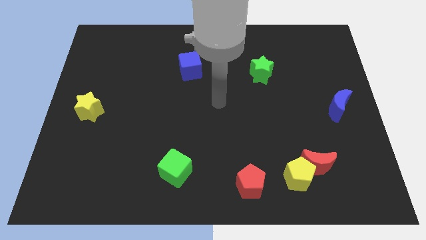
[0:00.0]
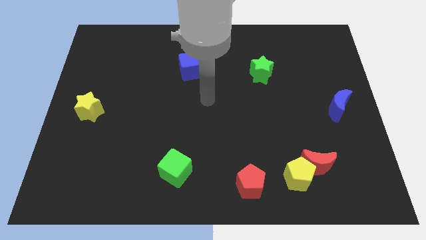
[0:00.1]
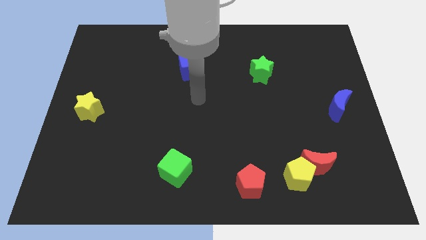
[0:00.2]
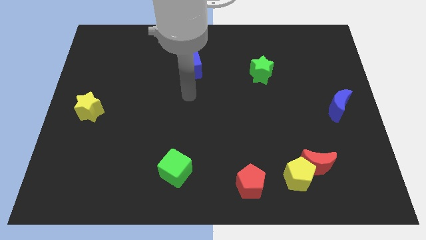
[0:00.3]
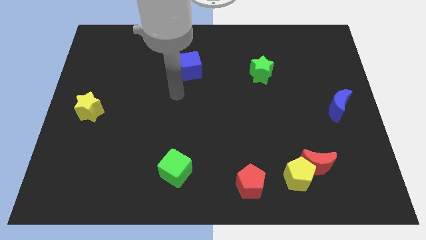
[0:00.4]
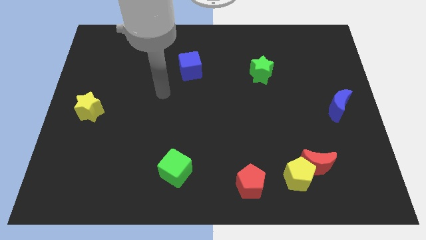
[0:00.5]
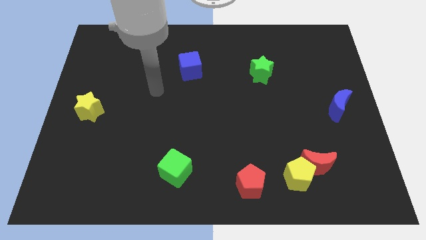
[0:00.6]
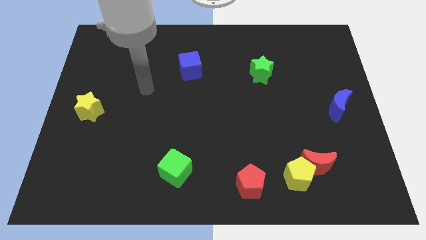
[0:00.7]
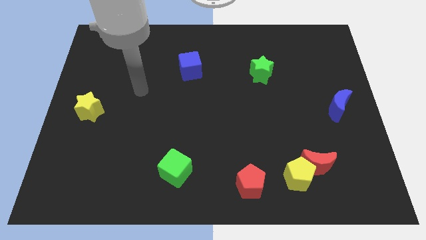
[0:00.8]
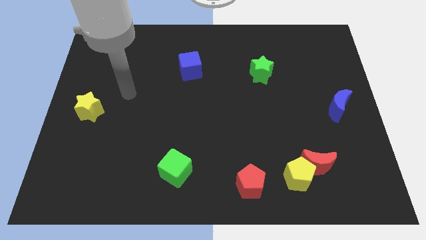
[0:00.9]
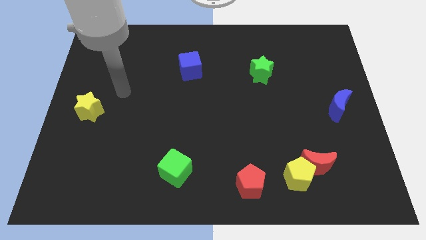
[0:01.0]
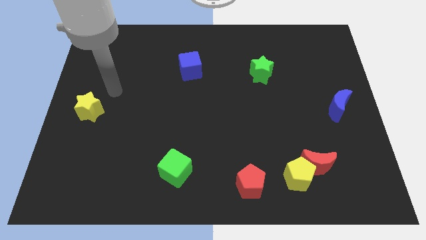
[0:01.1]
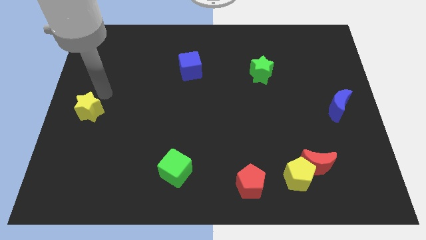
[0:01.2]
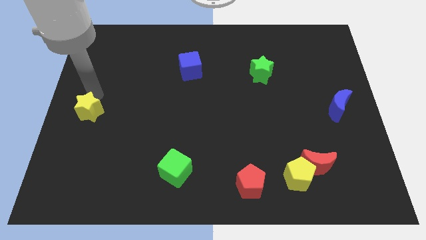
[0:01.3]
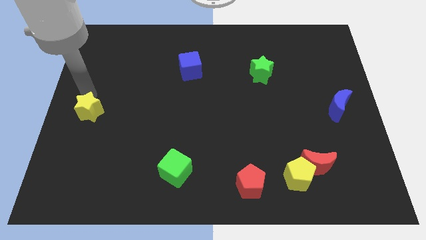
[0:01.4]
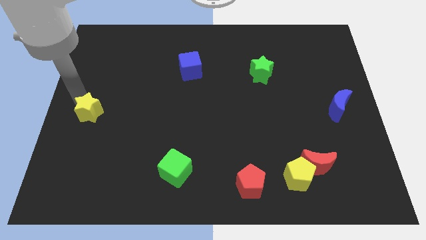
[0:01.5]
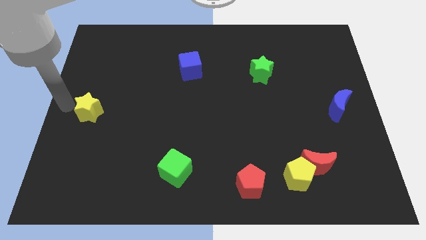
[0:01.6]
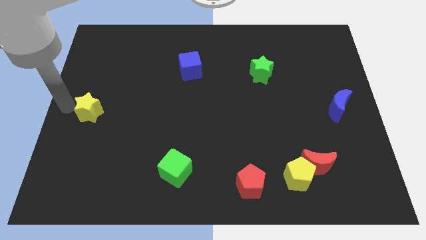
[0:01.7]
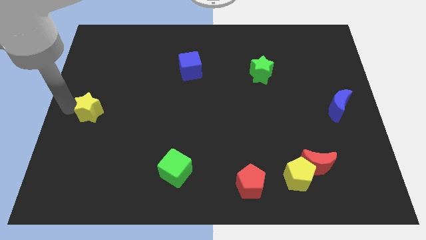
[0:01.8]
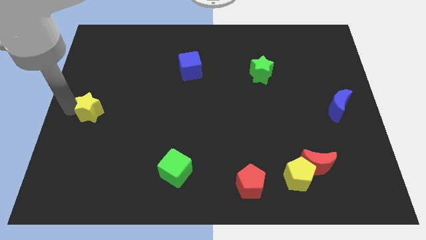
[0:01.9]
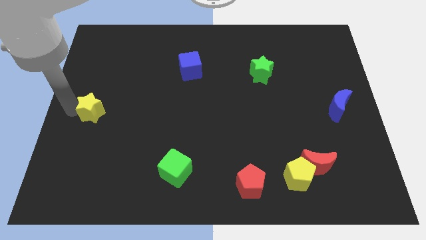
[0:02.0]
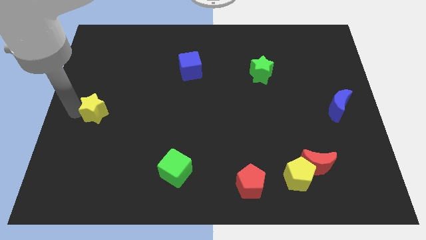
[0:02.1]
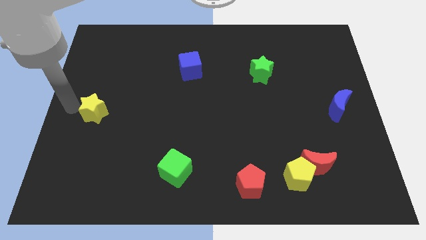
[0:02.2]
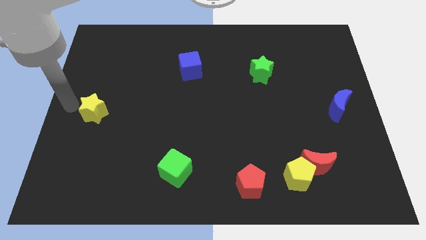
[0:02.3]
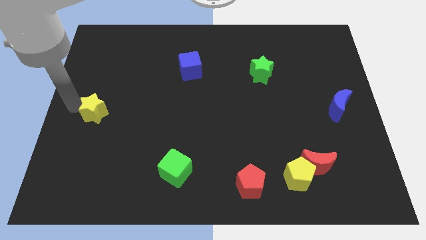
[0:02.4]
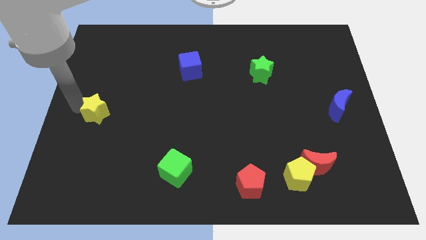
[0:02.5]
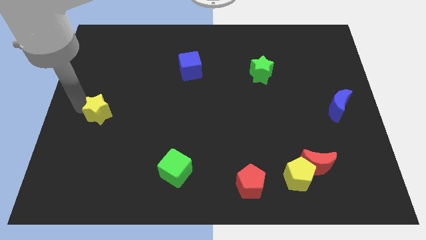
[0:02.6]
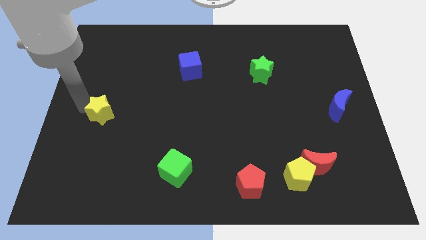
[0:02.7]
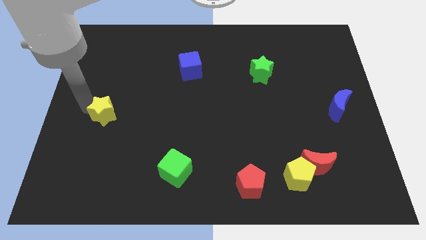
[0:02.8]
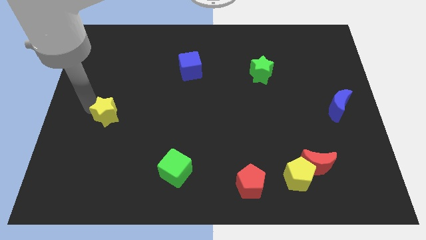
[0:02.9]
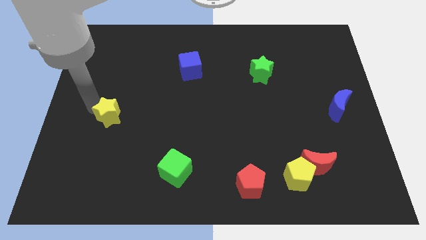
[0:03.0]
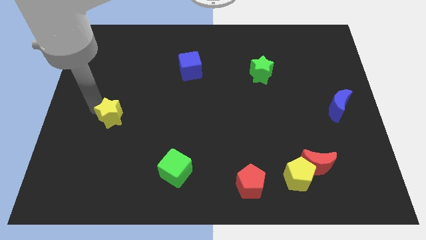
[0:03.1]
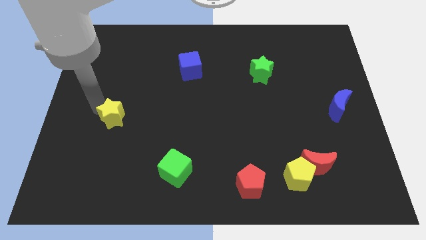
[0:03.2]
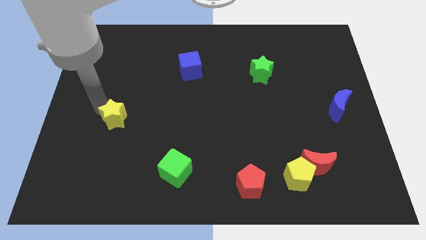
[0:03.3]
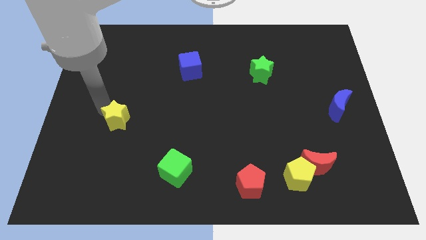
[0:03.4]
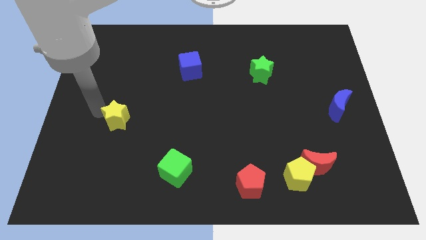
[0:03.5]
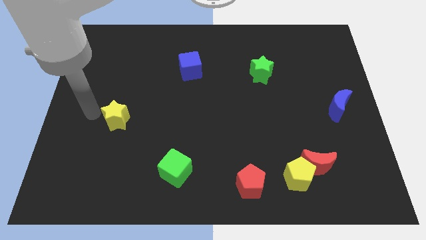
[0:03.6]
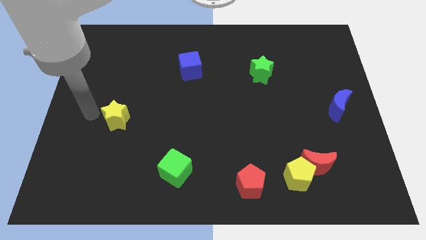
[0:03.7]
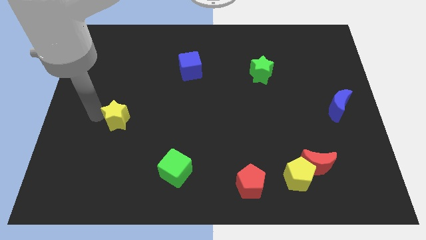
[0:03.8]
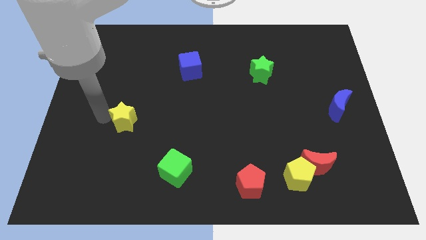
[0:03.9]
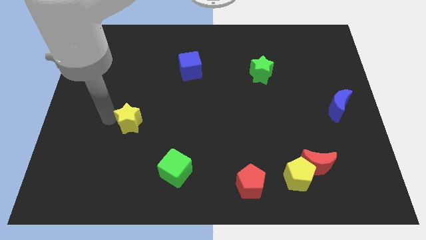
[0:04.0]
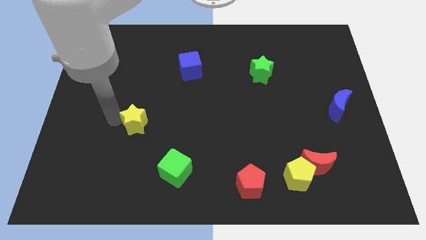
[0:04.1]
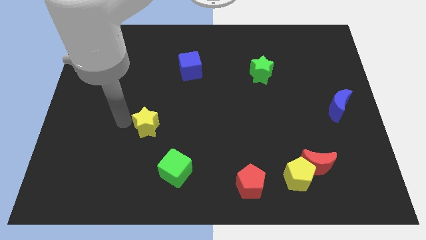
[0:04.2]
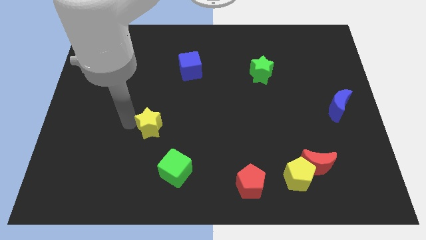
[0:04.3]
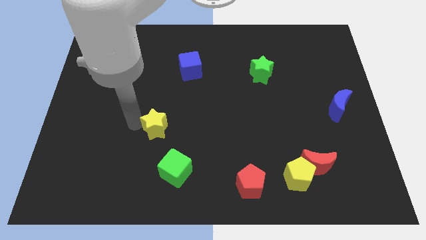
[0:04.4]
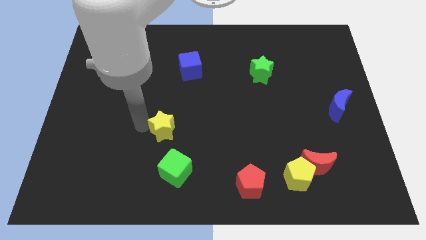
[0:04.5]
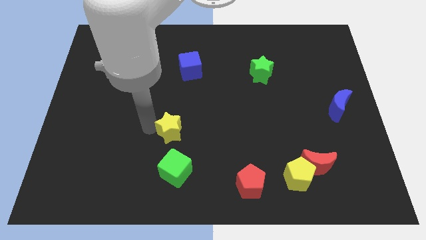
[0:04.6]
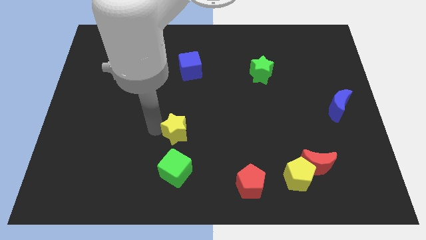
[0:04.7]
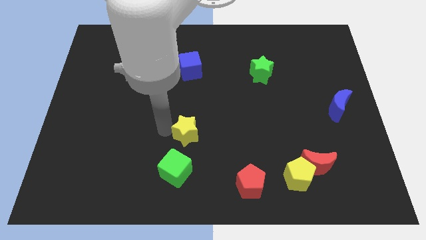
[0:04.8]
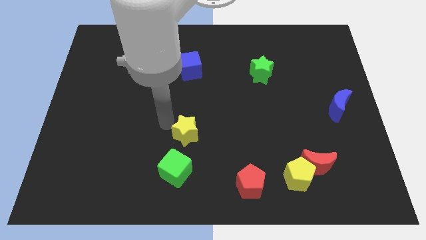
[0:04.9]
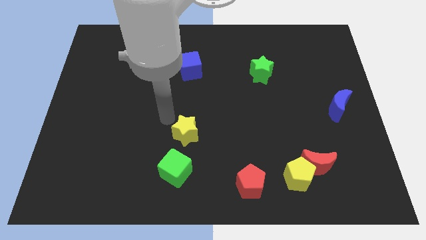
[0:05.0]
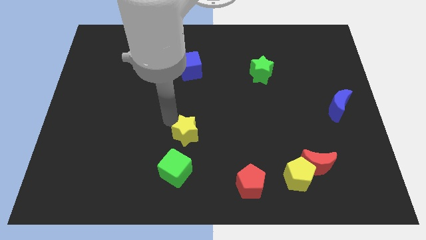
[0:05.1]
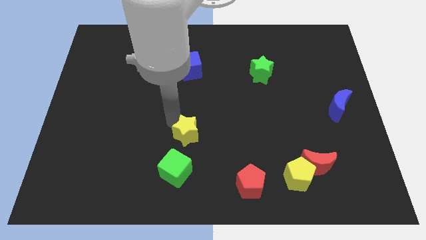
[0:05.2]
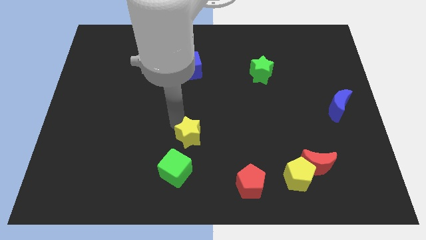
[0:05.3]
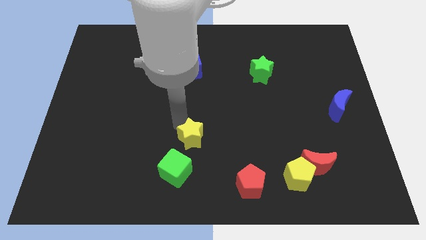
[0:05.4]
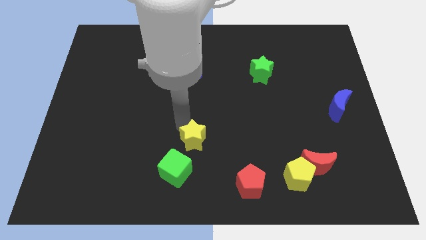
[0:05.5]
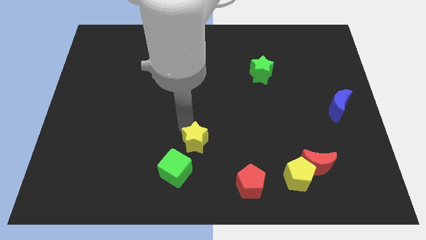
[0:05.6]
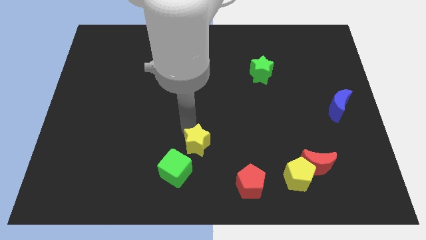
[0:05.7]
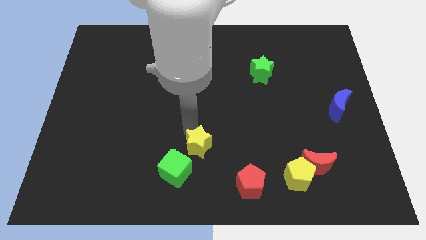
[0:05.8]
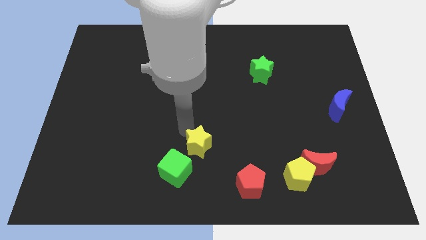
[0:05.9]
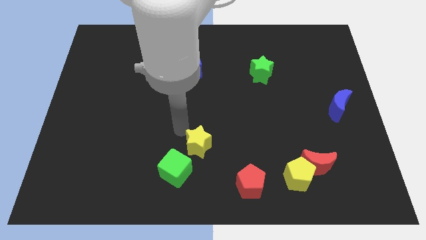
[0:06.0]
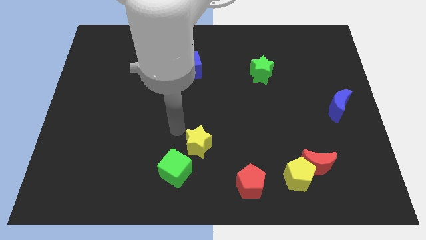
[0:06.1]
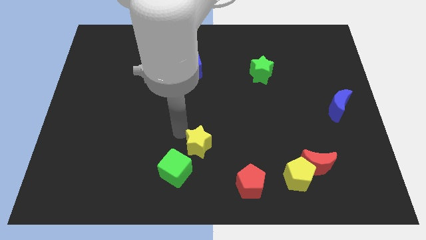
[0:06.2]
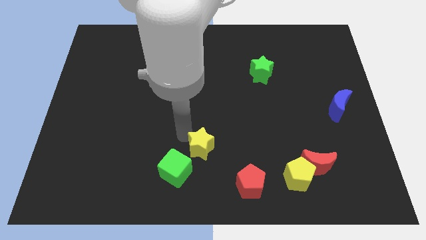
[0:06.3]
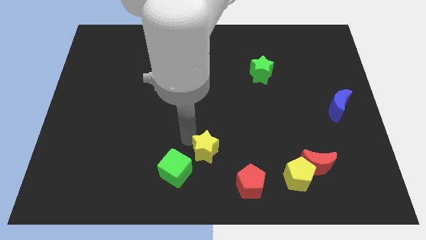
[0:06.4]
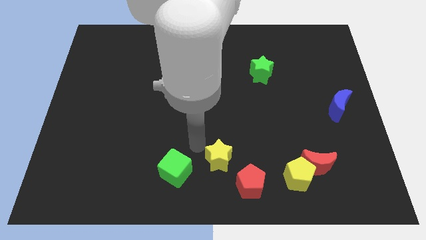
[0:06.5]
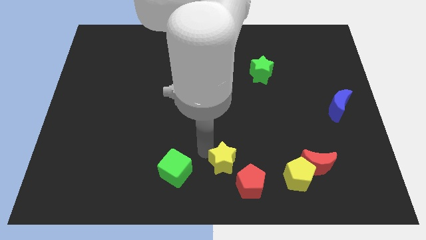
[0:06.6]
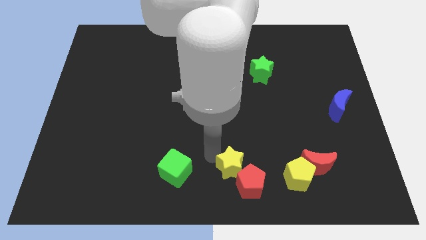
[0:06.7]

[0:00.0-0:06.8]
move the yellow star towards the red pentagon

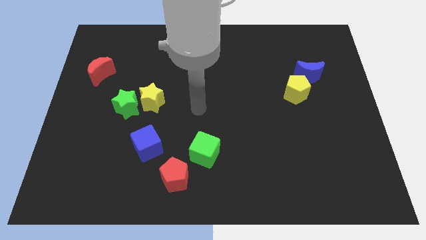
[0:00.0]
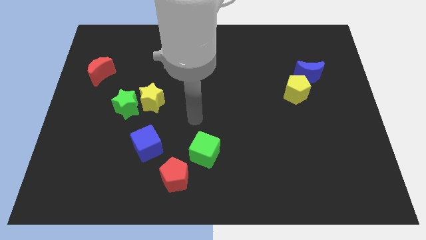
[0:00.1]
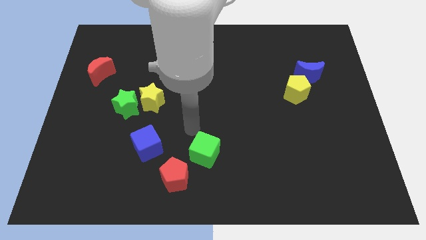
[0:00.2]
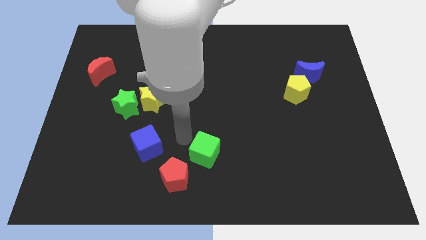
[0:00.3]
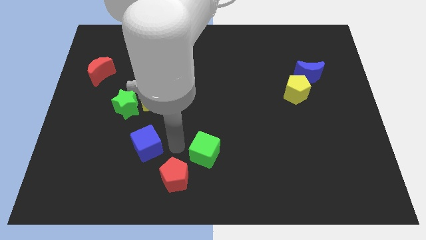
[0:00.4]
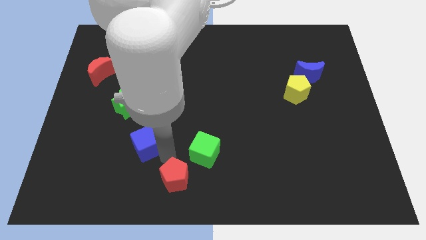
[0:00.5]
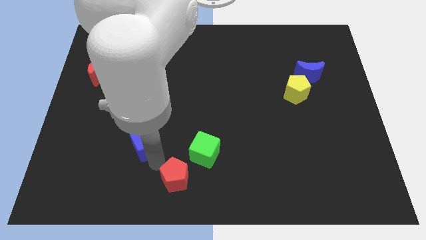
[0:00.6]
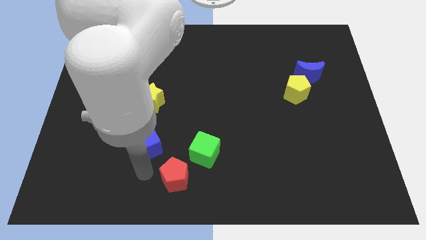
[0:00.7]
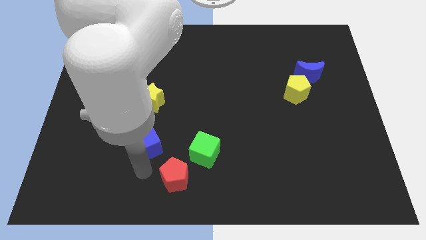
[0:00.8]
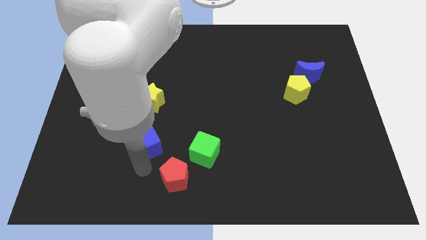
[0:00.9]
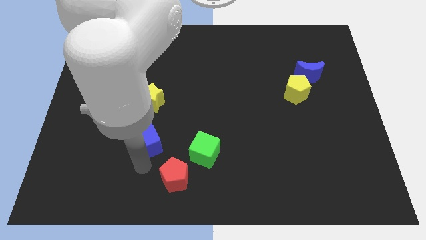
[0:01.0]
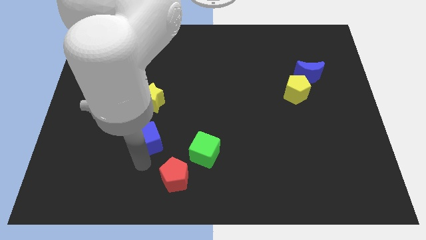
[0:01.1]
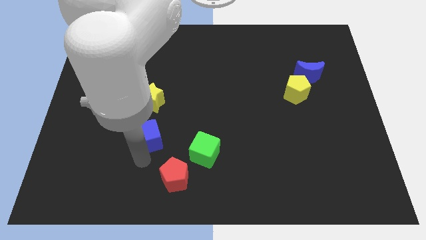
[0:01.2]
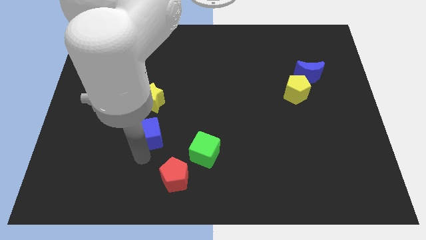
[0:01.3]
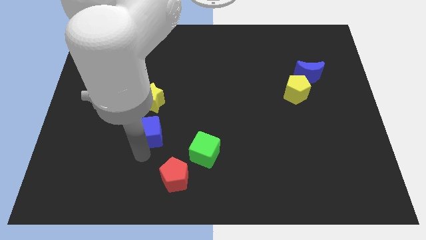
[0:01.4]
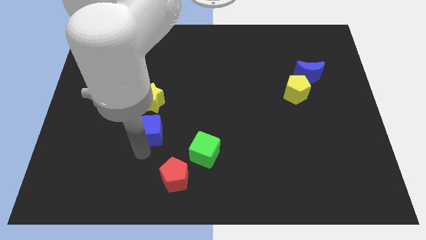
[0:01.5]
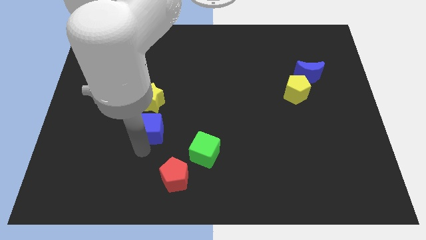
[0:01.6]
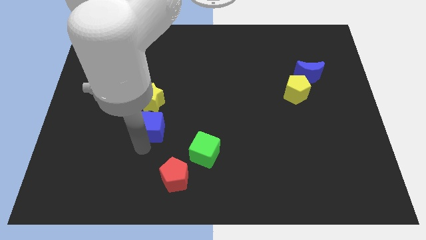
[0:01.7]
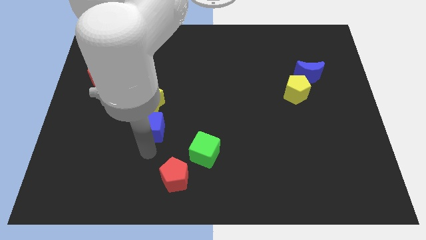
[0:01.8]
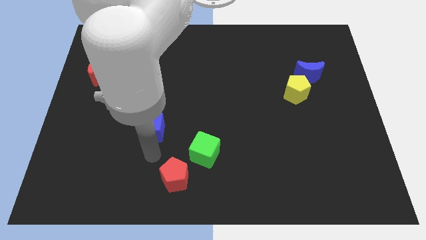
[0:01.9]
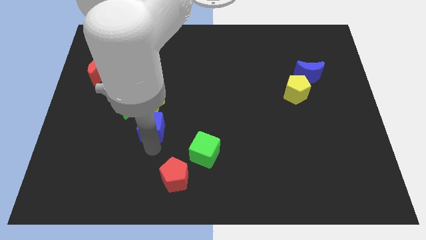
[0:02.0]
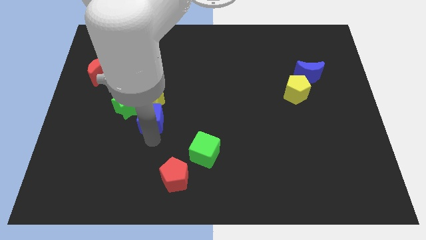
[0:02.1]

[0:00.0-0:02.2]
slide the blue cube towards the yellow star
